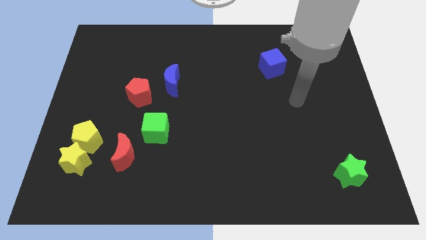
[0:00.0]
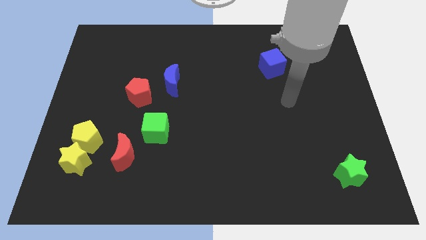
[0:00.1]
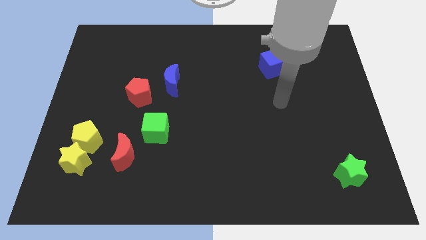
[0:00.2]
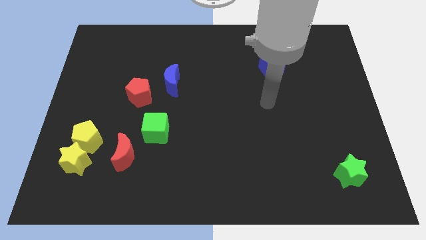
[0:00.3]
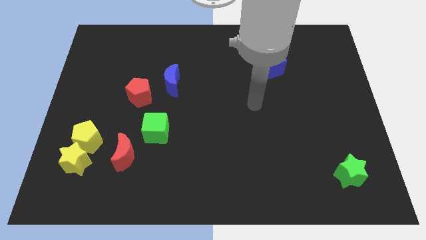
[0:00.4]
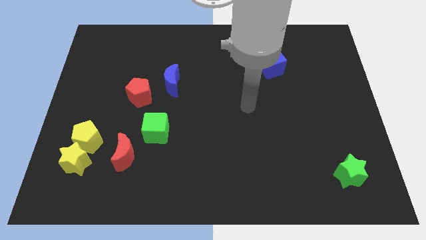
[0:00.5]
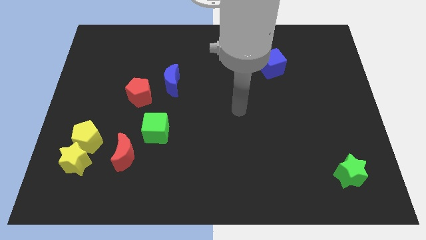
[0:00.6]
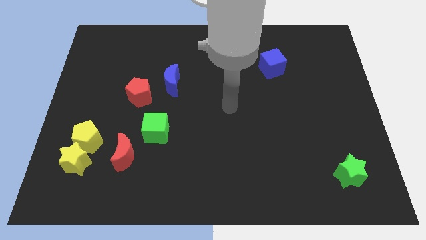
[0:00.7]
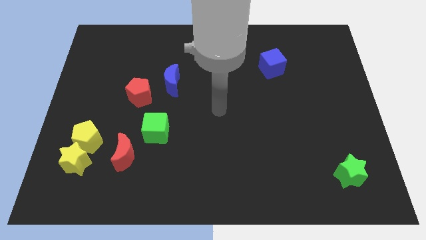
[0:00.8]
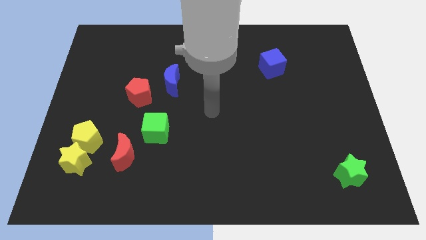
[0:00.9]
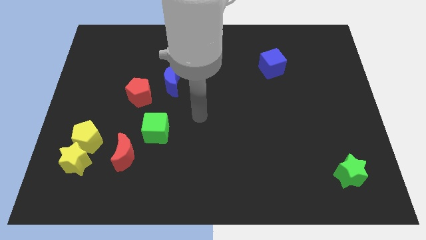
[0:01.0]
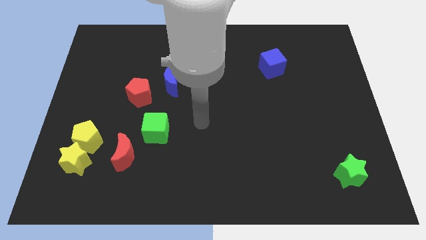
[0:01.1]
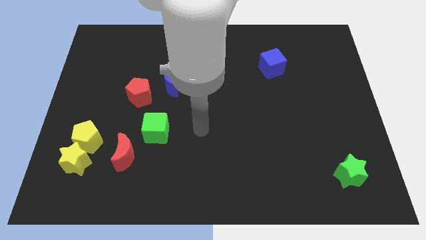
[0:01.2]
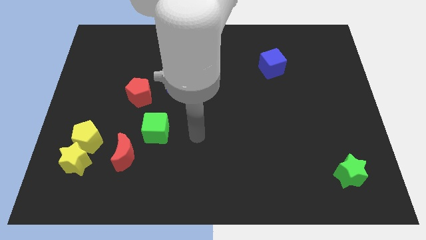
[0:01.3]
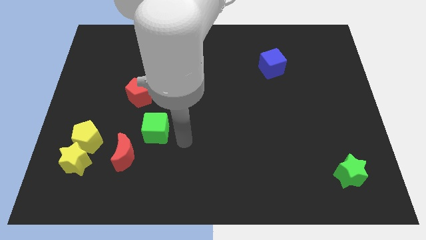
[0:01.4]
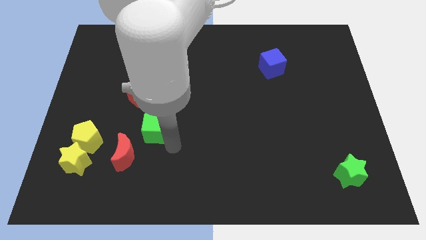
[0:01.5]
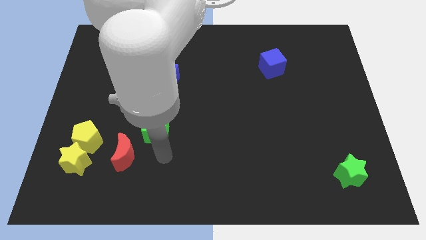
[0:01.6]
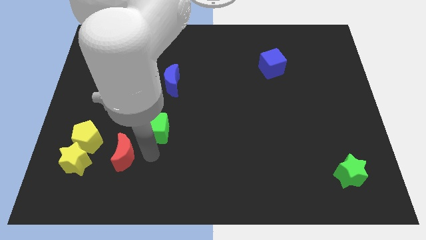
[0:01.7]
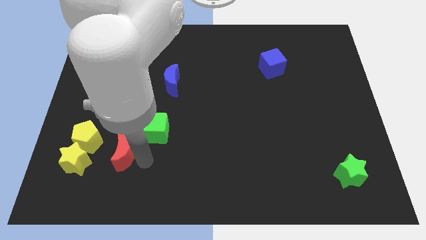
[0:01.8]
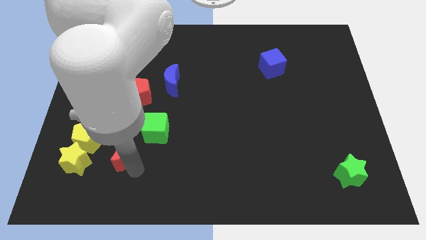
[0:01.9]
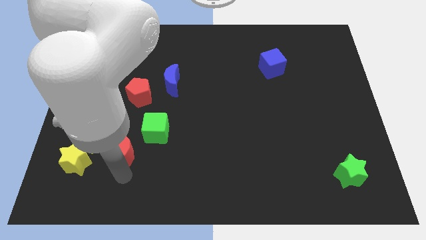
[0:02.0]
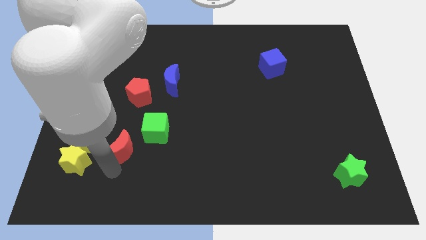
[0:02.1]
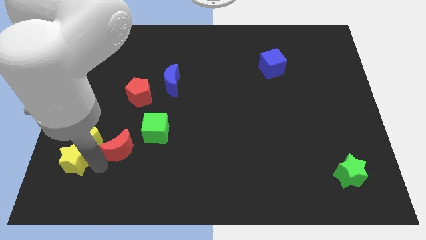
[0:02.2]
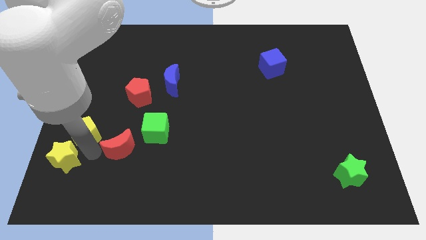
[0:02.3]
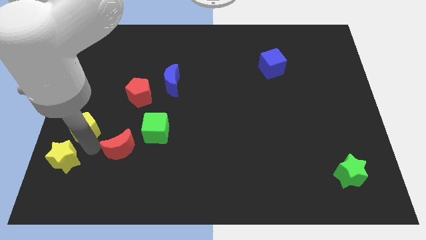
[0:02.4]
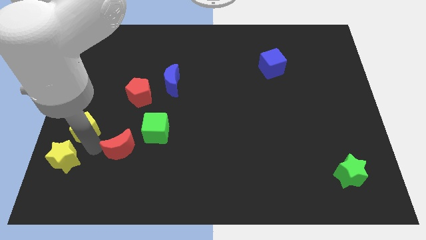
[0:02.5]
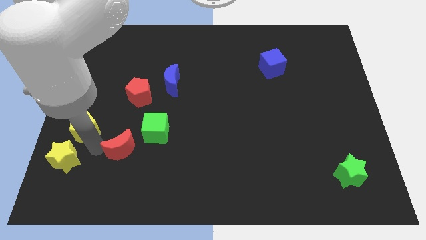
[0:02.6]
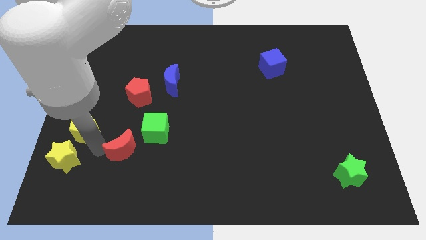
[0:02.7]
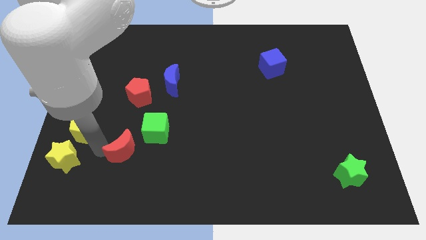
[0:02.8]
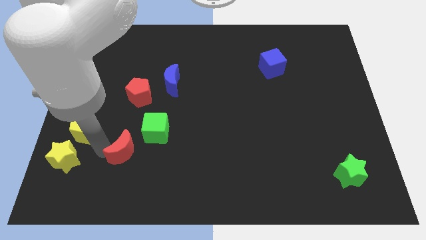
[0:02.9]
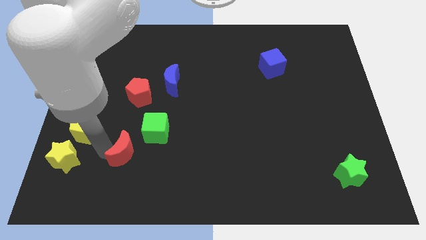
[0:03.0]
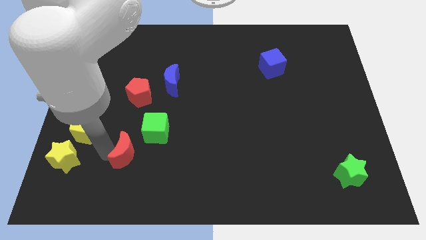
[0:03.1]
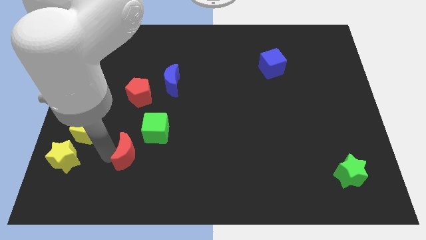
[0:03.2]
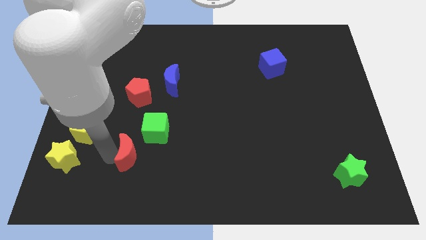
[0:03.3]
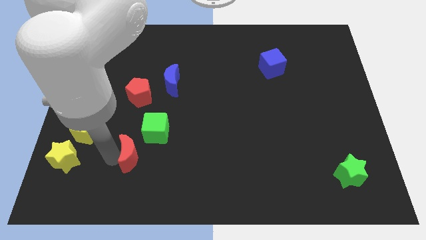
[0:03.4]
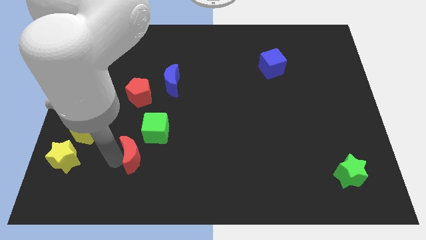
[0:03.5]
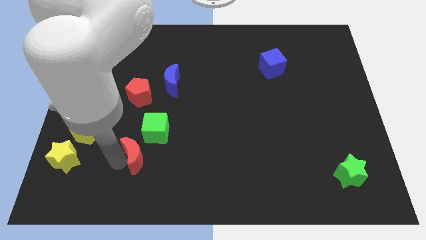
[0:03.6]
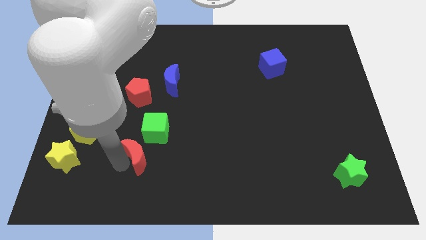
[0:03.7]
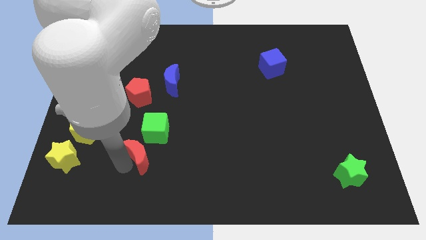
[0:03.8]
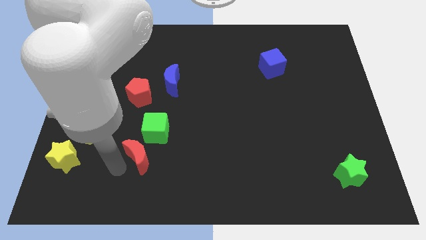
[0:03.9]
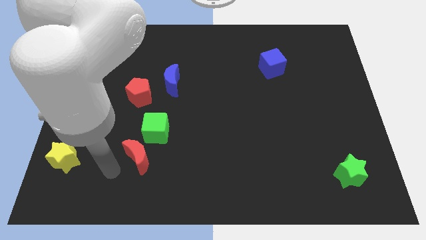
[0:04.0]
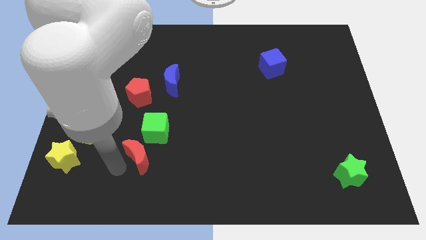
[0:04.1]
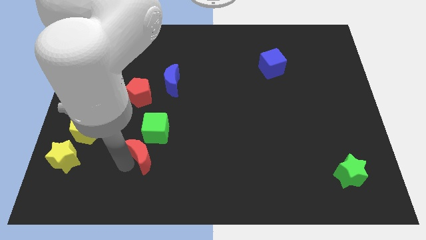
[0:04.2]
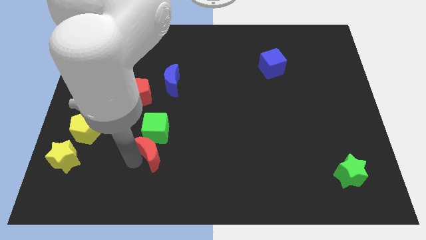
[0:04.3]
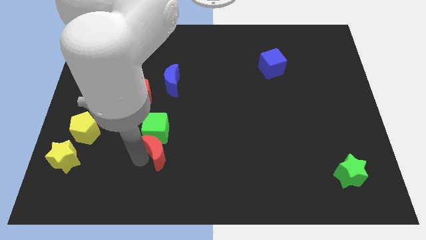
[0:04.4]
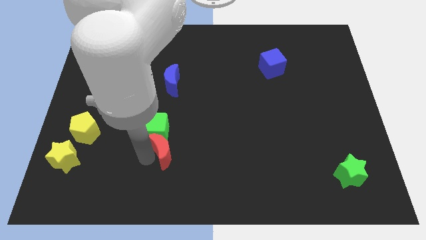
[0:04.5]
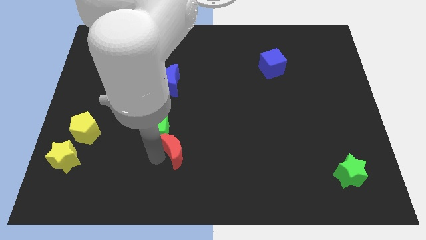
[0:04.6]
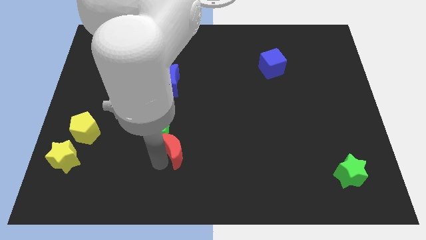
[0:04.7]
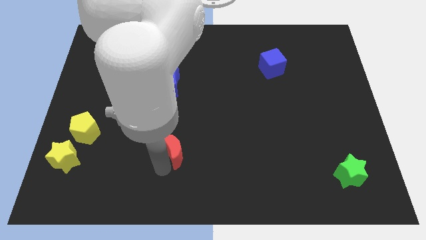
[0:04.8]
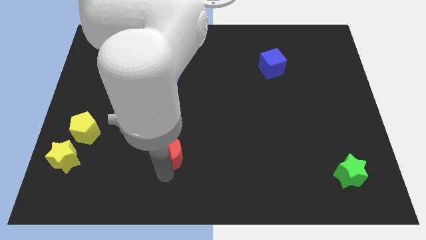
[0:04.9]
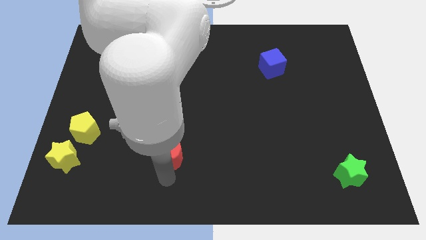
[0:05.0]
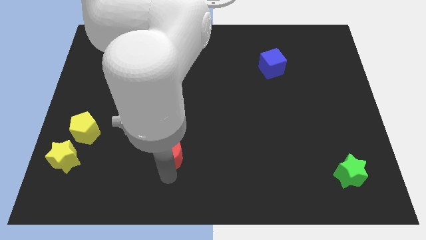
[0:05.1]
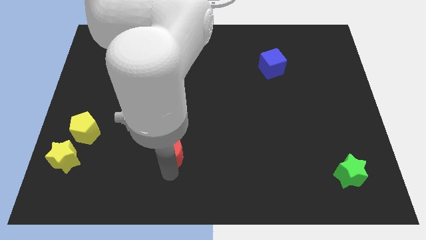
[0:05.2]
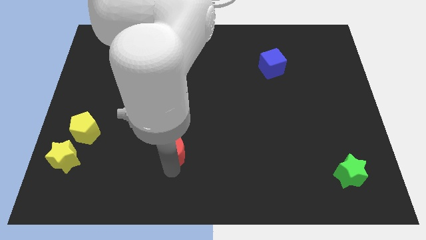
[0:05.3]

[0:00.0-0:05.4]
push the red moon diagonally upwards and to the right a little bit

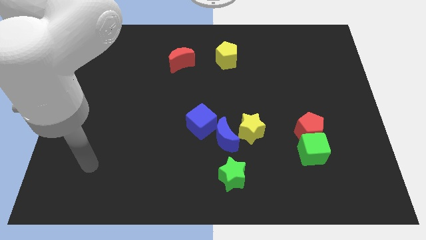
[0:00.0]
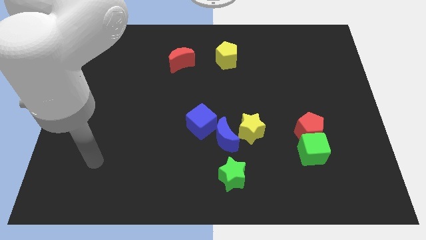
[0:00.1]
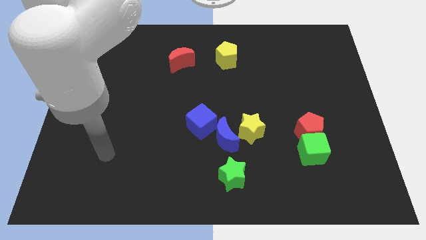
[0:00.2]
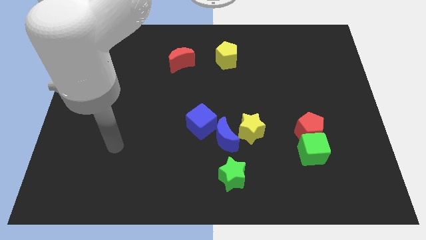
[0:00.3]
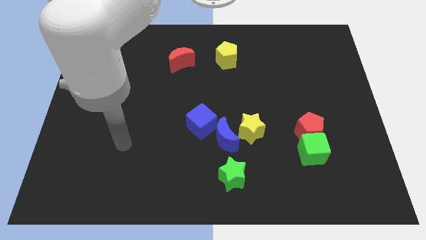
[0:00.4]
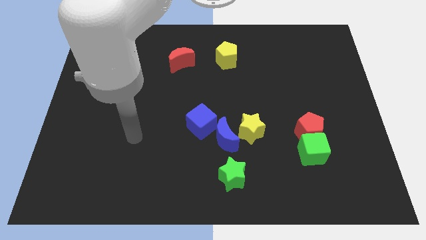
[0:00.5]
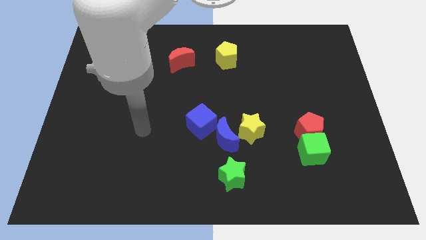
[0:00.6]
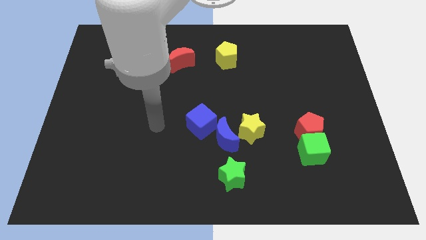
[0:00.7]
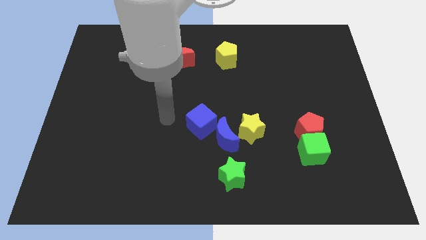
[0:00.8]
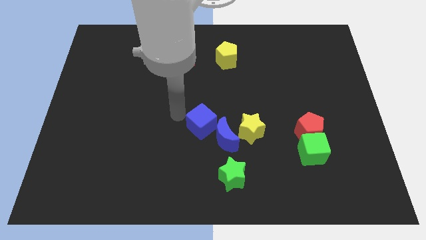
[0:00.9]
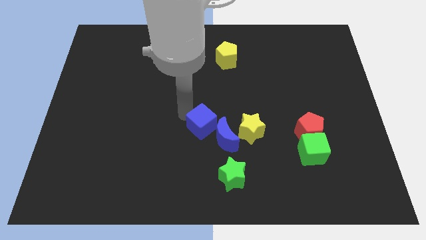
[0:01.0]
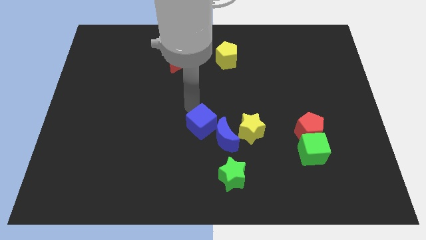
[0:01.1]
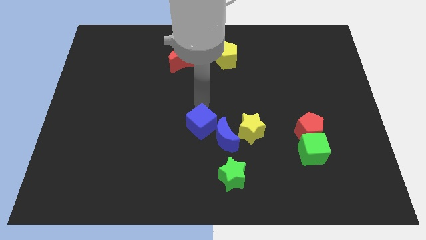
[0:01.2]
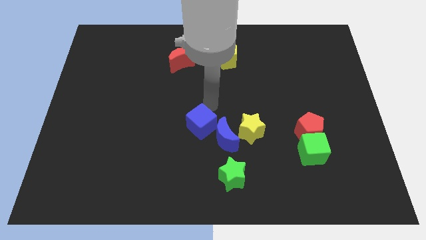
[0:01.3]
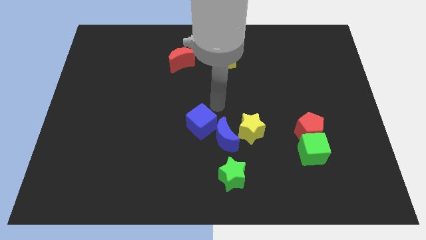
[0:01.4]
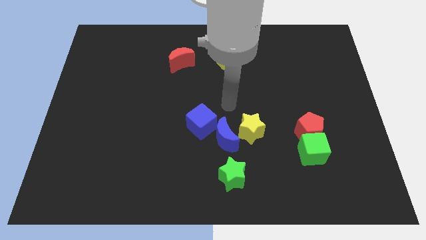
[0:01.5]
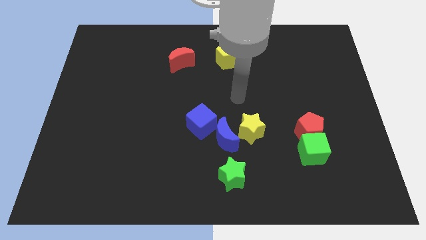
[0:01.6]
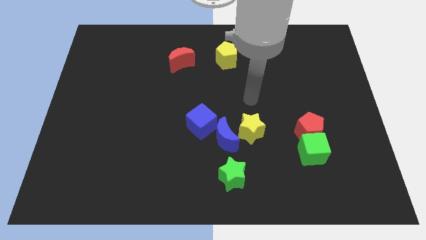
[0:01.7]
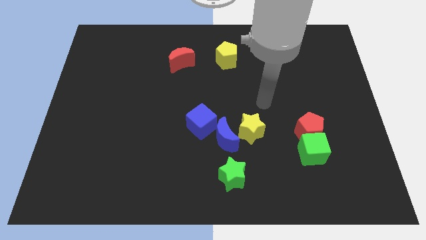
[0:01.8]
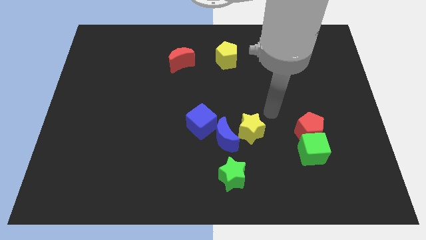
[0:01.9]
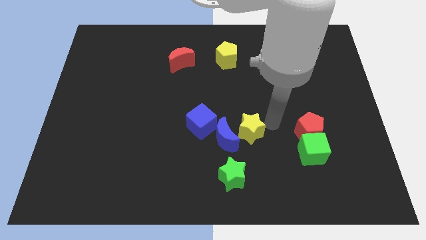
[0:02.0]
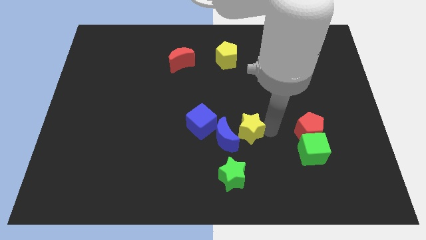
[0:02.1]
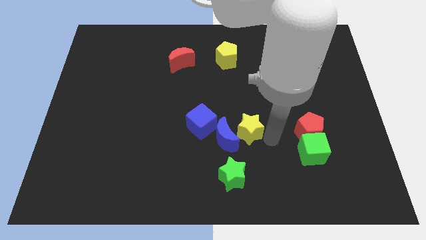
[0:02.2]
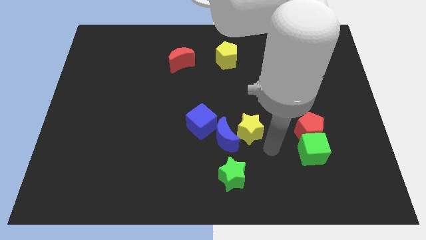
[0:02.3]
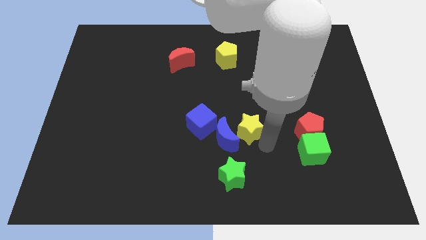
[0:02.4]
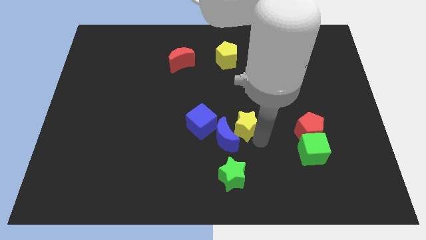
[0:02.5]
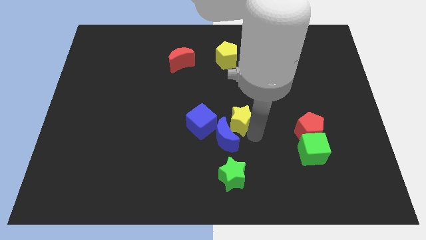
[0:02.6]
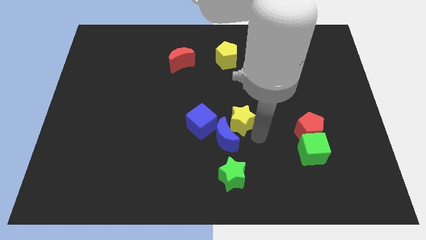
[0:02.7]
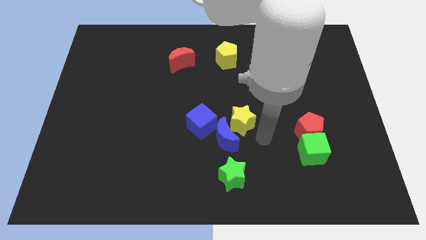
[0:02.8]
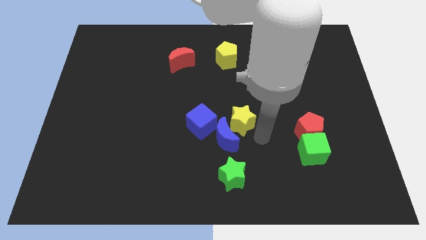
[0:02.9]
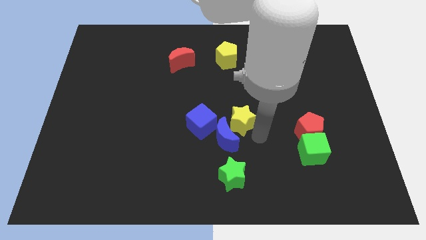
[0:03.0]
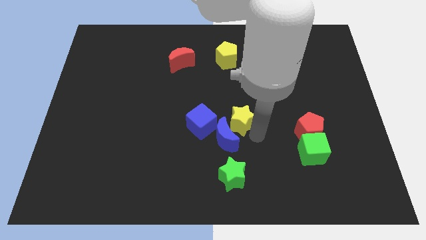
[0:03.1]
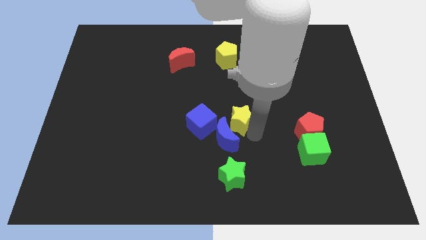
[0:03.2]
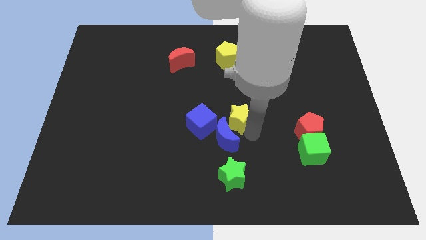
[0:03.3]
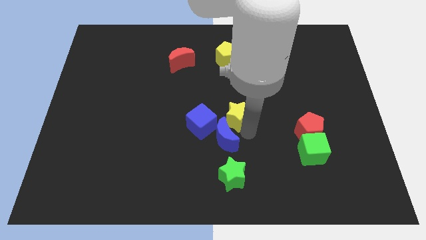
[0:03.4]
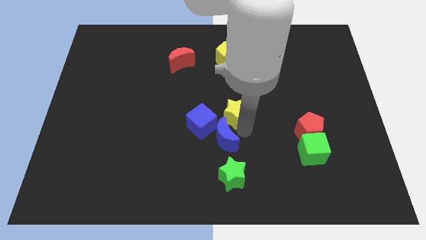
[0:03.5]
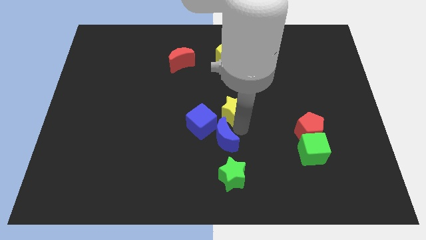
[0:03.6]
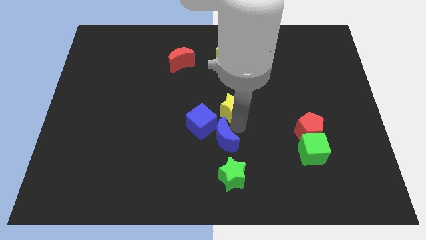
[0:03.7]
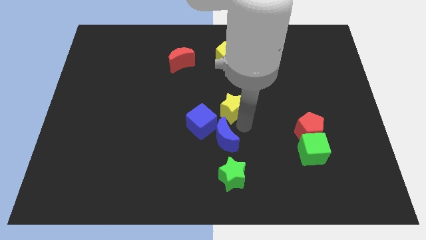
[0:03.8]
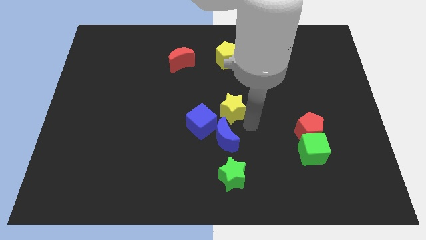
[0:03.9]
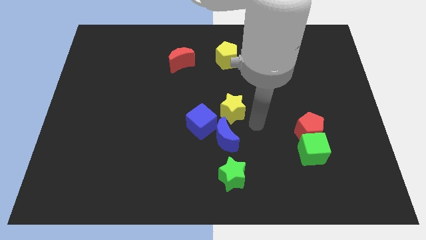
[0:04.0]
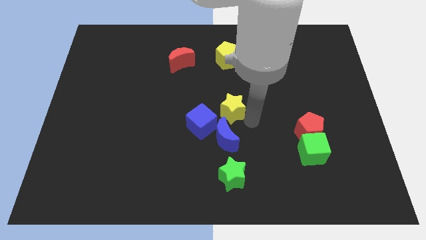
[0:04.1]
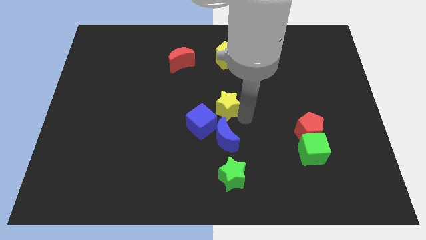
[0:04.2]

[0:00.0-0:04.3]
push the yellow star slightly upwards and then to the left
